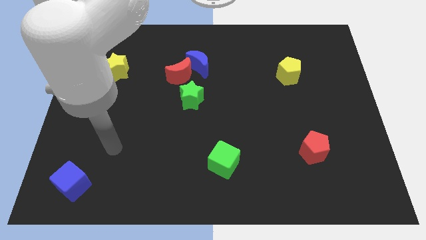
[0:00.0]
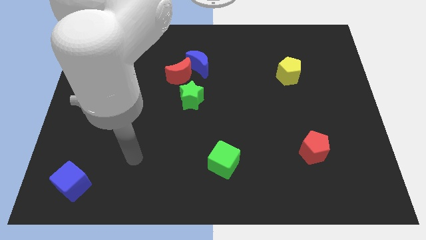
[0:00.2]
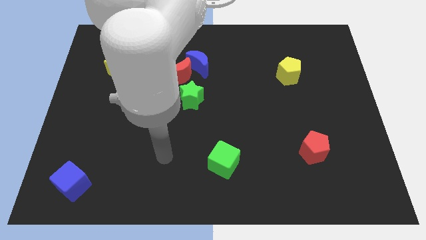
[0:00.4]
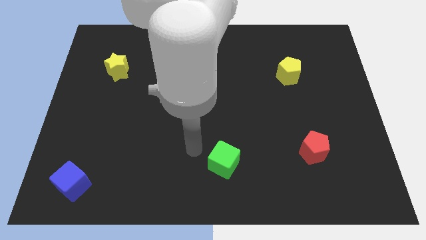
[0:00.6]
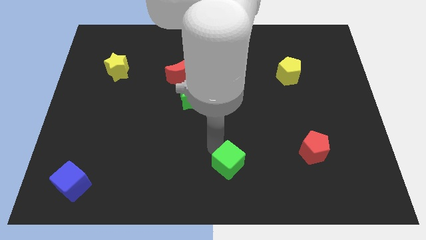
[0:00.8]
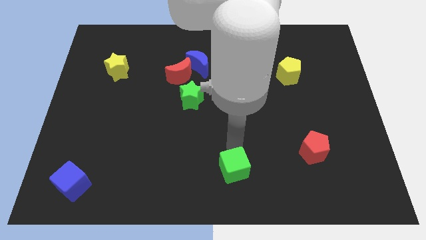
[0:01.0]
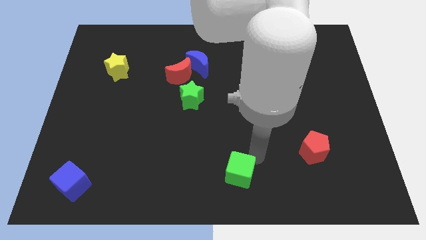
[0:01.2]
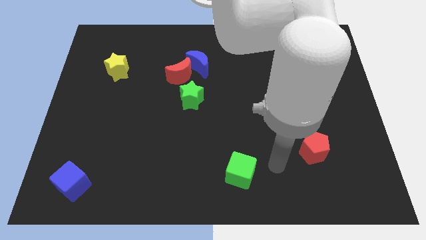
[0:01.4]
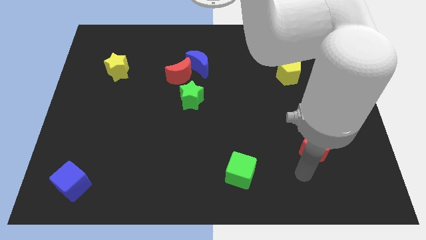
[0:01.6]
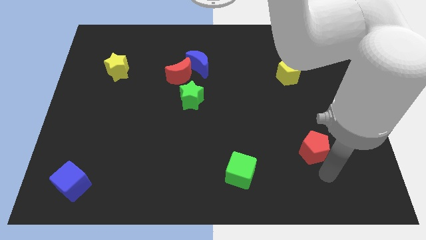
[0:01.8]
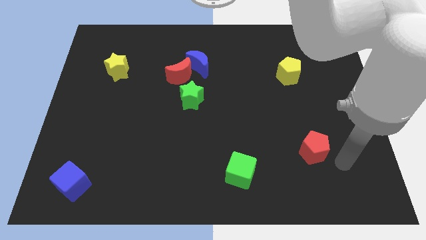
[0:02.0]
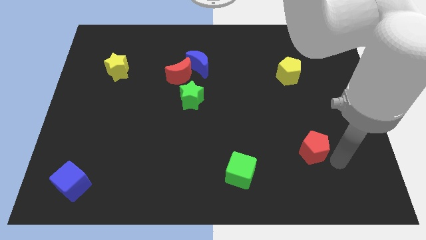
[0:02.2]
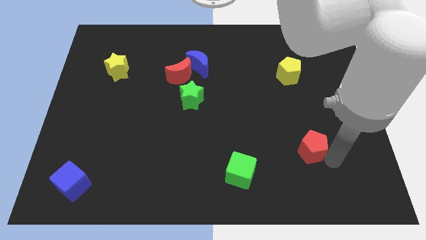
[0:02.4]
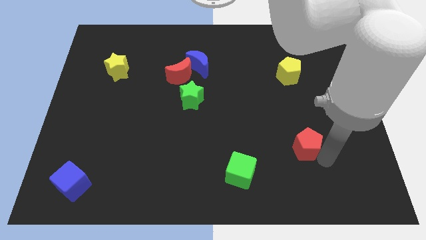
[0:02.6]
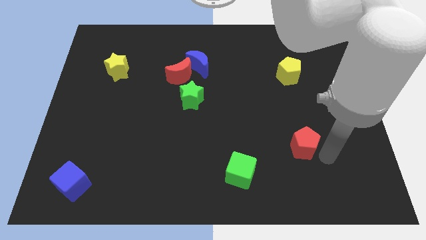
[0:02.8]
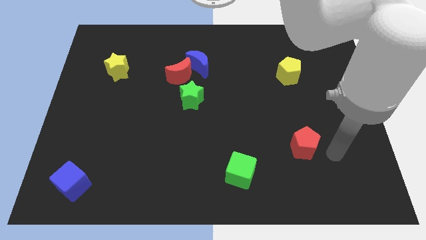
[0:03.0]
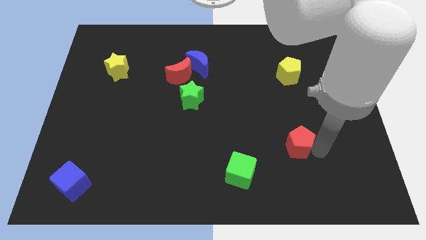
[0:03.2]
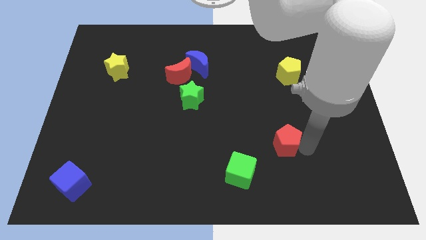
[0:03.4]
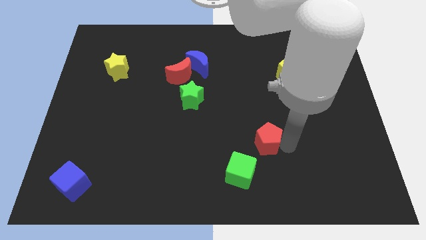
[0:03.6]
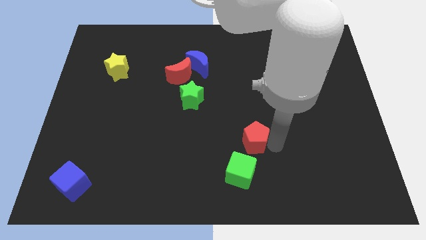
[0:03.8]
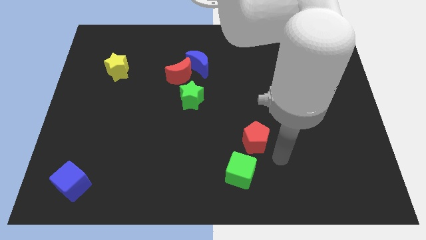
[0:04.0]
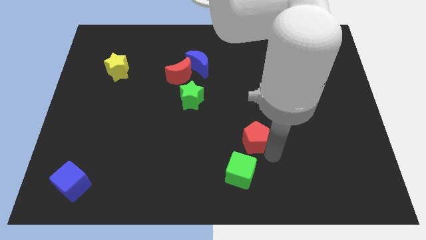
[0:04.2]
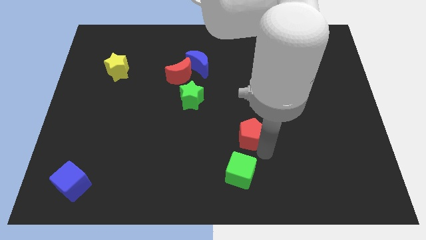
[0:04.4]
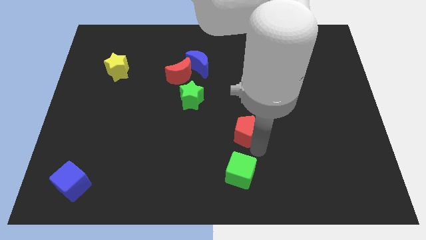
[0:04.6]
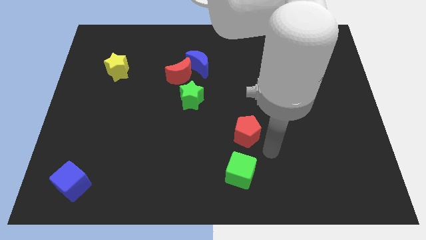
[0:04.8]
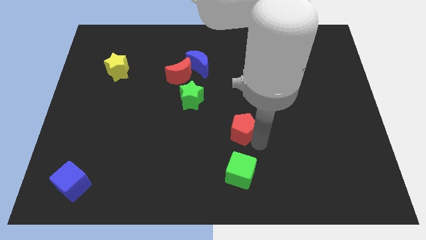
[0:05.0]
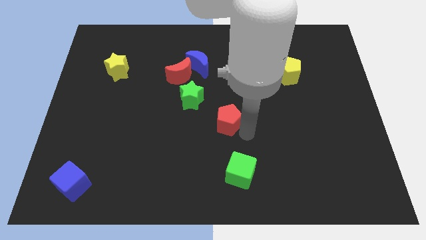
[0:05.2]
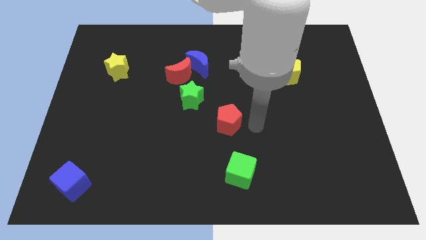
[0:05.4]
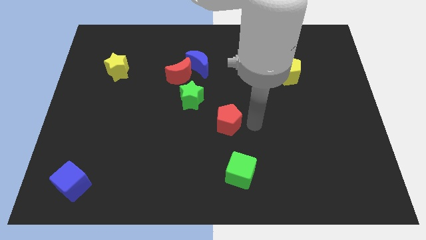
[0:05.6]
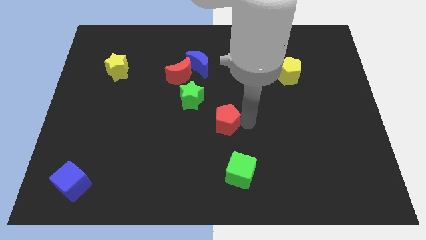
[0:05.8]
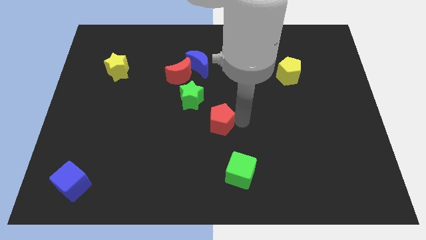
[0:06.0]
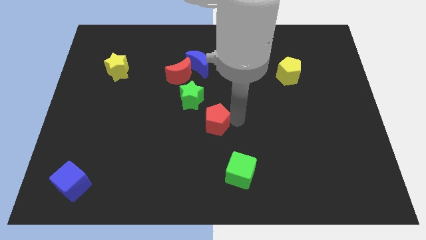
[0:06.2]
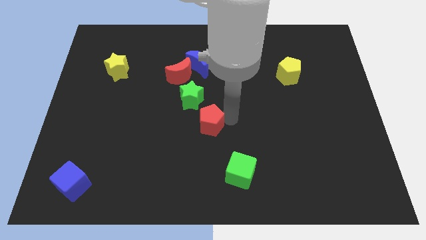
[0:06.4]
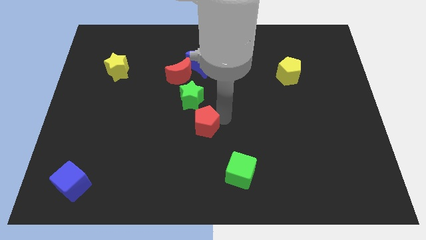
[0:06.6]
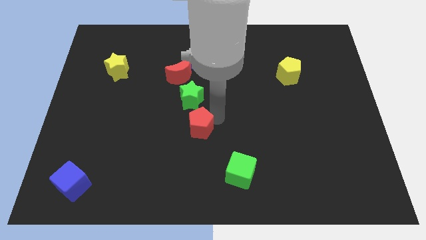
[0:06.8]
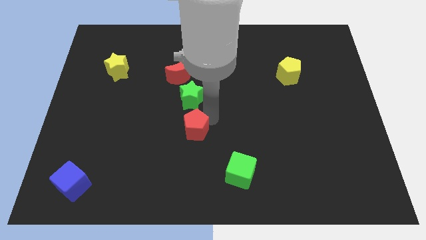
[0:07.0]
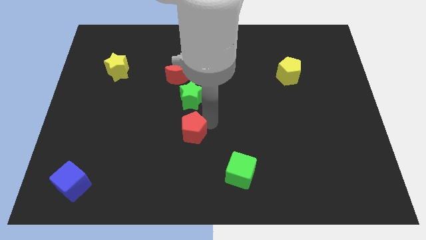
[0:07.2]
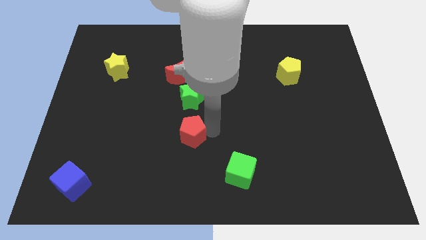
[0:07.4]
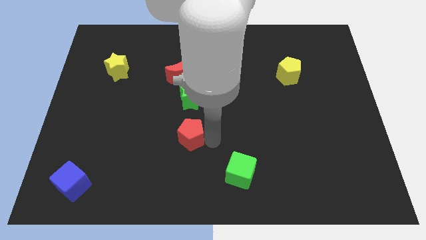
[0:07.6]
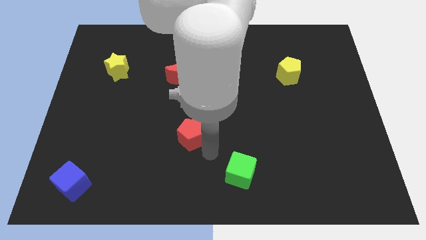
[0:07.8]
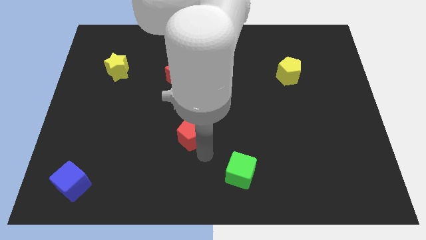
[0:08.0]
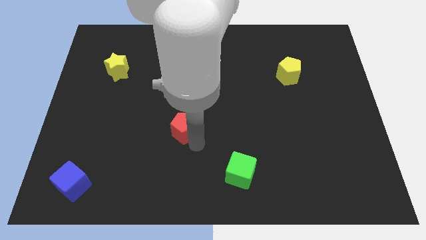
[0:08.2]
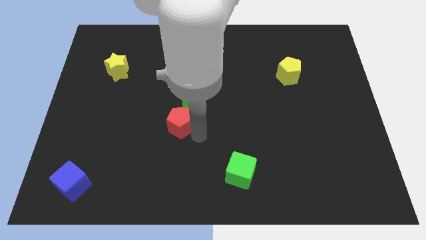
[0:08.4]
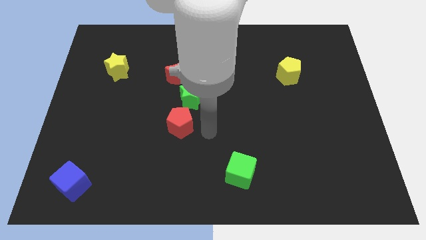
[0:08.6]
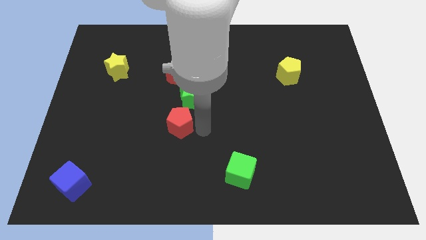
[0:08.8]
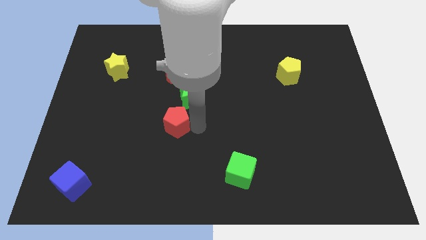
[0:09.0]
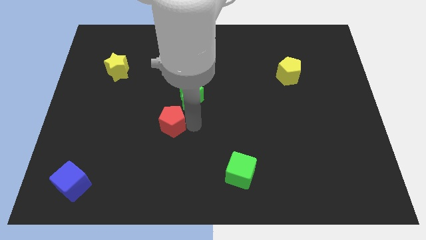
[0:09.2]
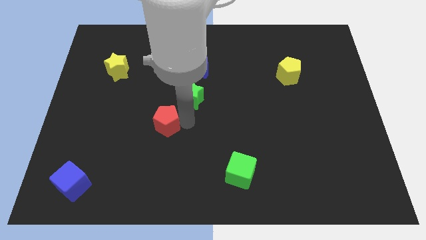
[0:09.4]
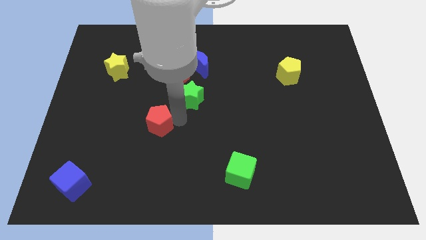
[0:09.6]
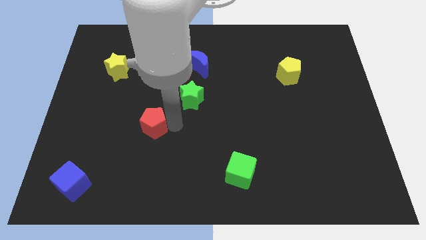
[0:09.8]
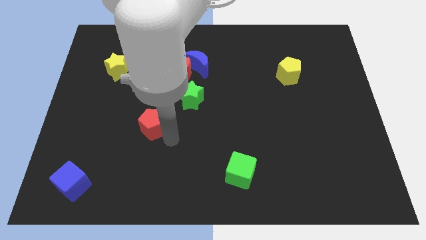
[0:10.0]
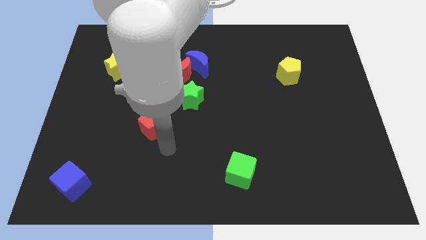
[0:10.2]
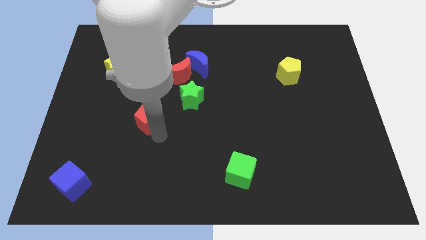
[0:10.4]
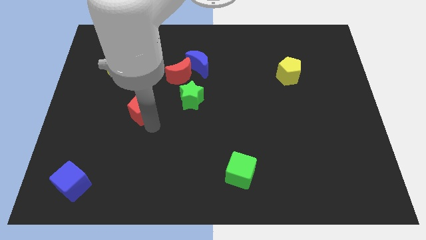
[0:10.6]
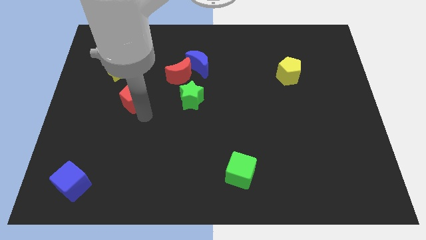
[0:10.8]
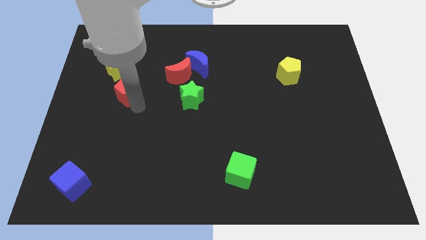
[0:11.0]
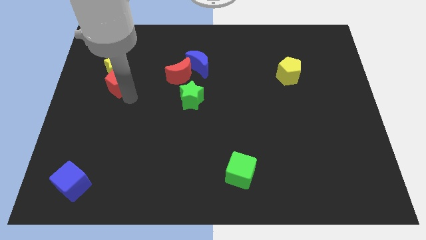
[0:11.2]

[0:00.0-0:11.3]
slide the red pentagon close to the yellow star

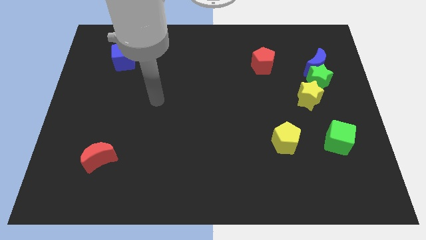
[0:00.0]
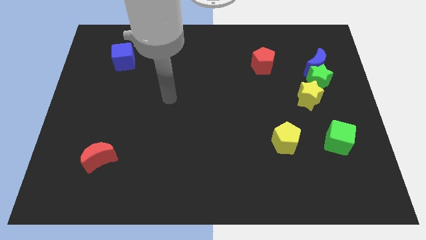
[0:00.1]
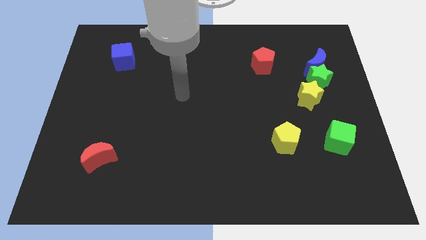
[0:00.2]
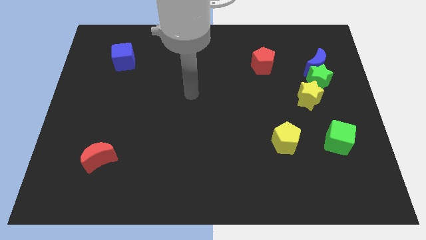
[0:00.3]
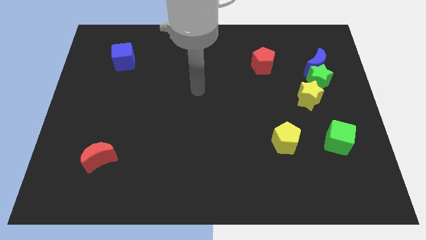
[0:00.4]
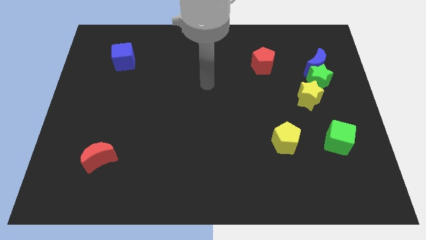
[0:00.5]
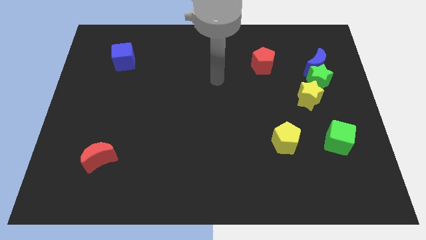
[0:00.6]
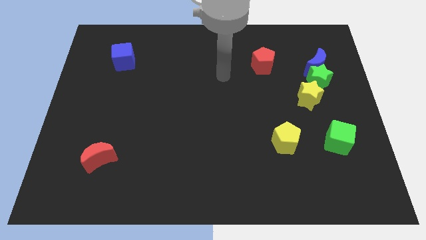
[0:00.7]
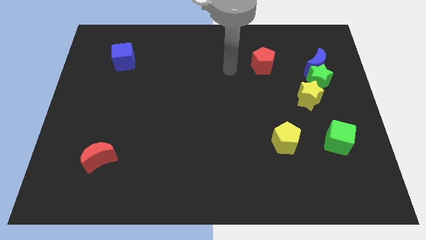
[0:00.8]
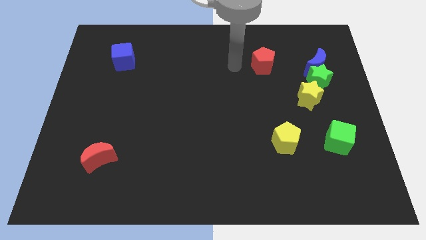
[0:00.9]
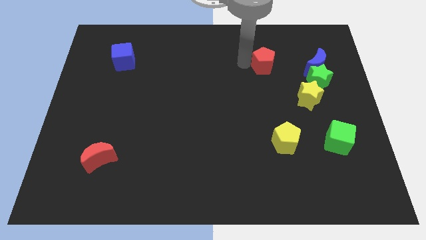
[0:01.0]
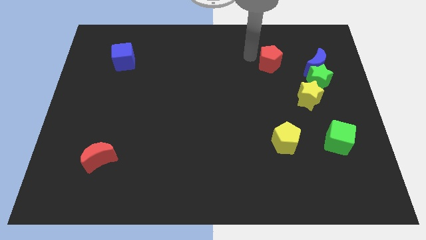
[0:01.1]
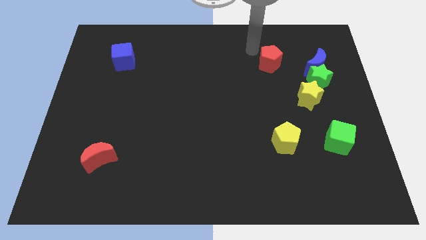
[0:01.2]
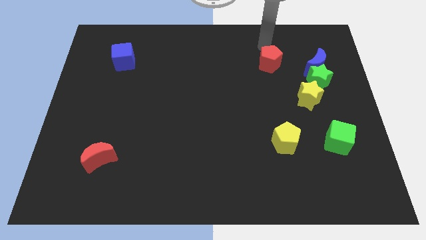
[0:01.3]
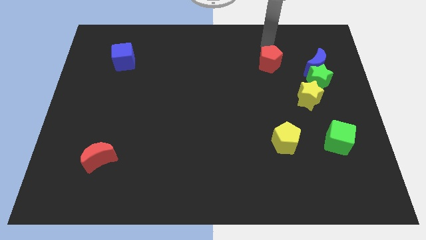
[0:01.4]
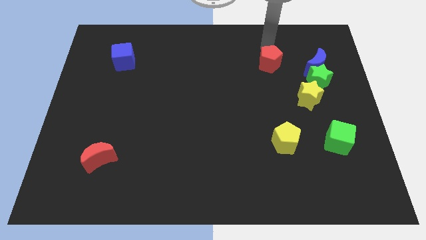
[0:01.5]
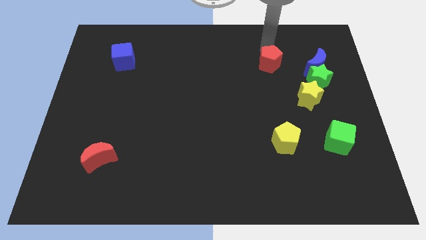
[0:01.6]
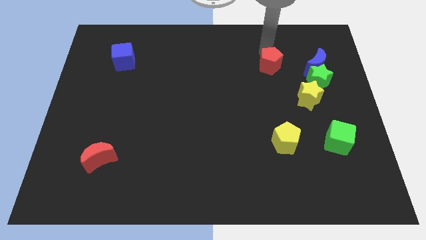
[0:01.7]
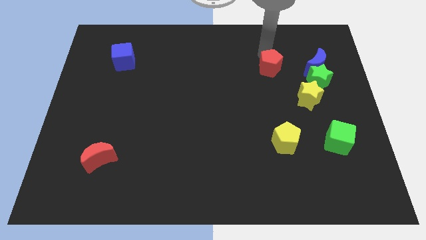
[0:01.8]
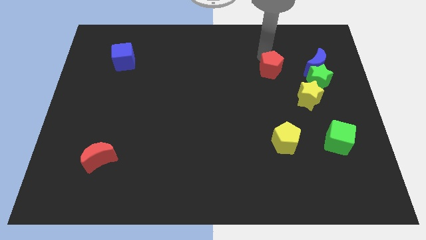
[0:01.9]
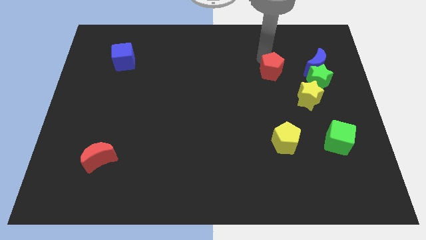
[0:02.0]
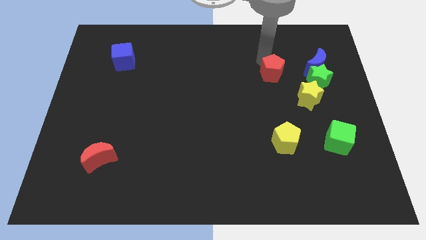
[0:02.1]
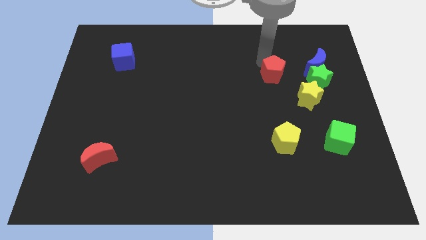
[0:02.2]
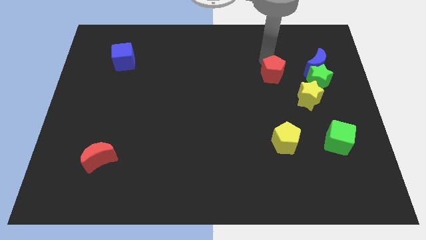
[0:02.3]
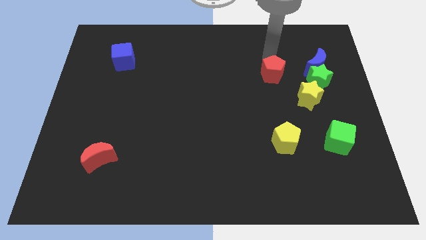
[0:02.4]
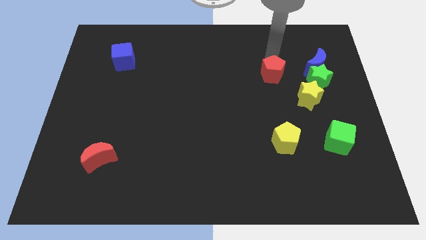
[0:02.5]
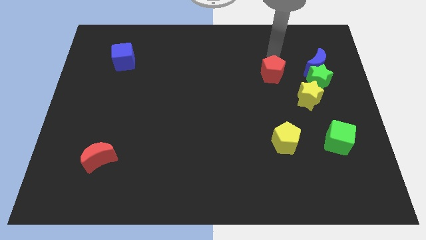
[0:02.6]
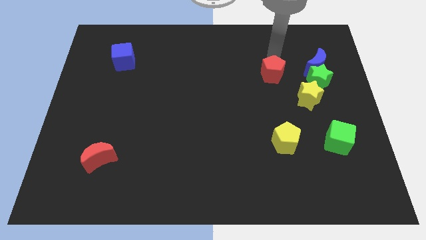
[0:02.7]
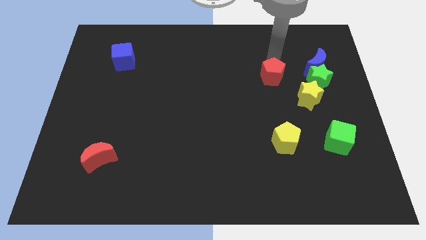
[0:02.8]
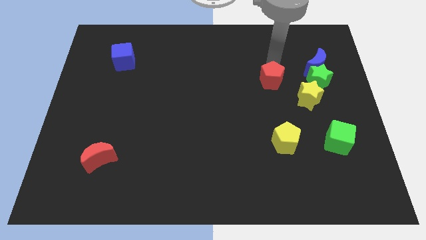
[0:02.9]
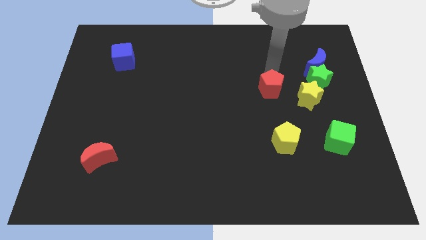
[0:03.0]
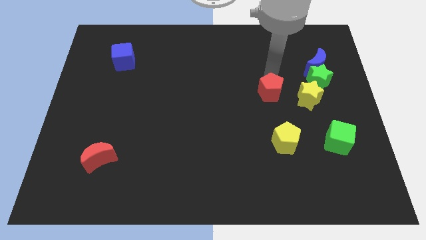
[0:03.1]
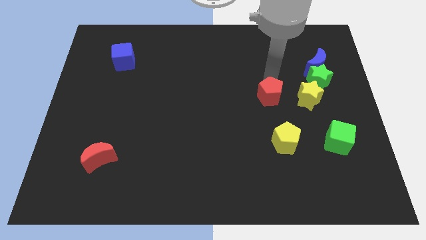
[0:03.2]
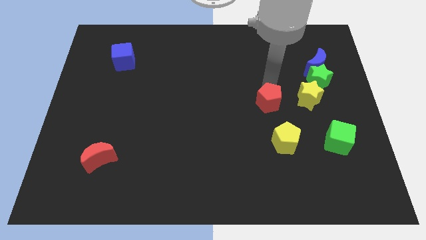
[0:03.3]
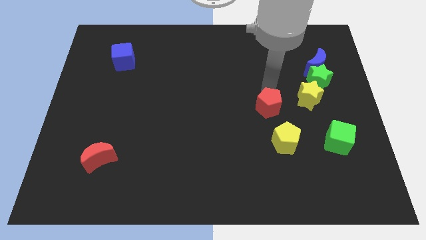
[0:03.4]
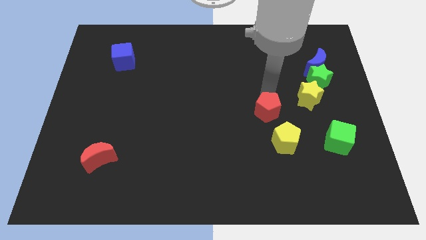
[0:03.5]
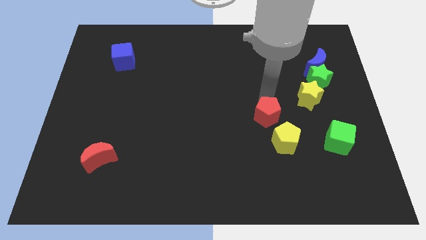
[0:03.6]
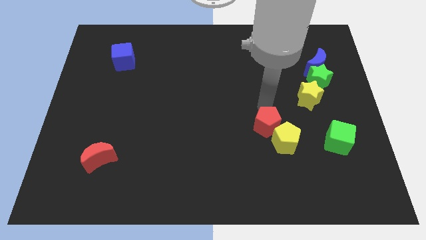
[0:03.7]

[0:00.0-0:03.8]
push the red pentagon close to the yellow pentagon
